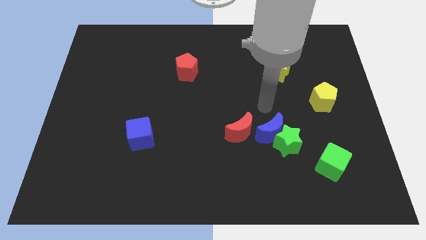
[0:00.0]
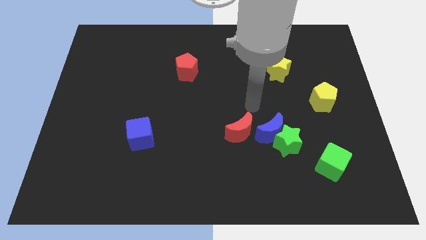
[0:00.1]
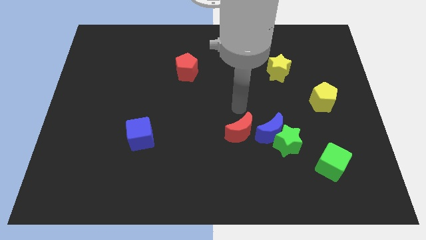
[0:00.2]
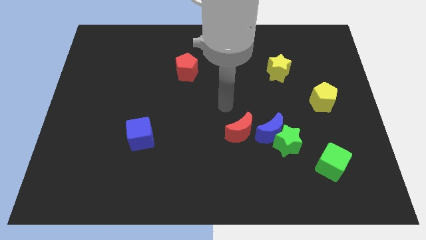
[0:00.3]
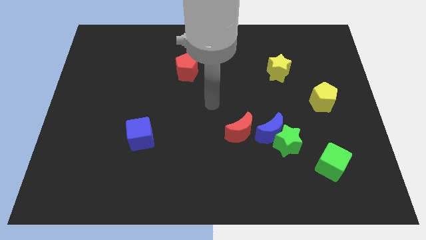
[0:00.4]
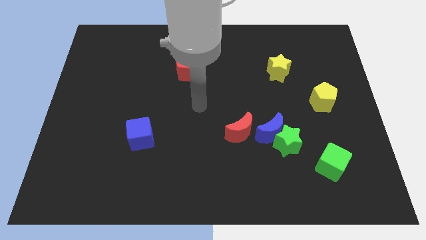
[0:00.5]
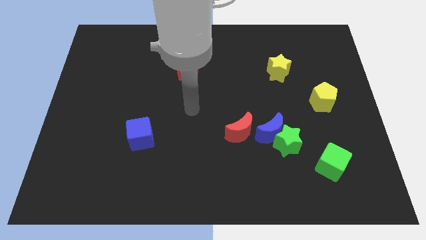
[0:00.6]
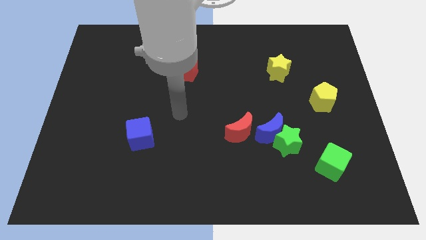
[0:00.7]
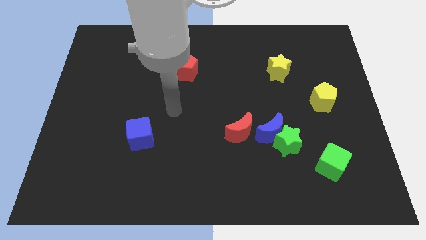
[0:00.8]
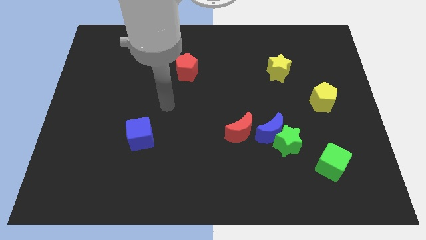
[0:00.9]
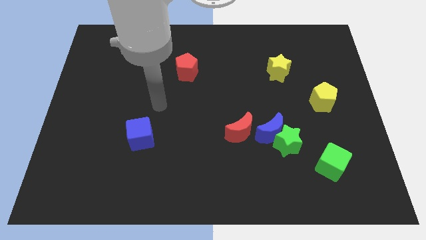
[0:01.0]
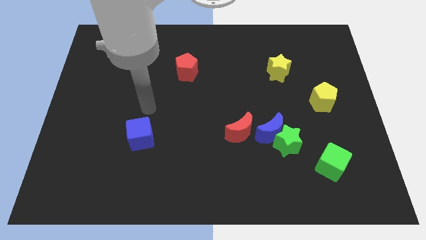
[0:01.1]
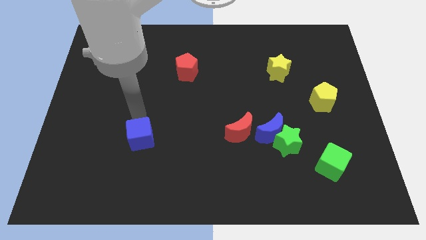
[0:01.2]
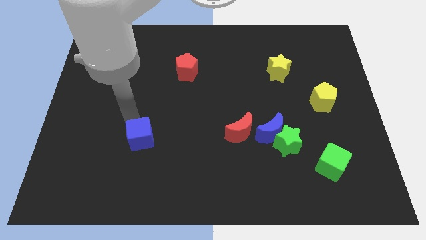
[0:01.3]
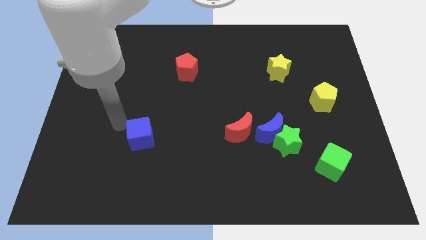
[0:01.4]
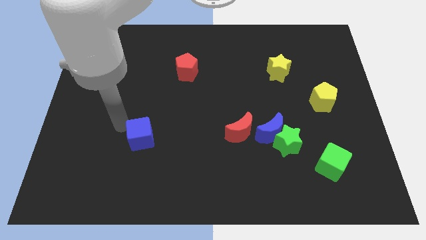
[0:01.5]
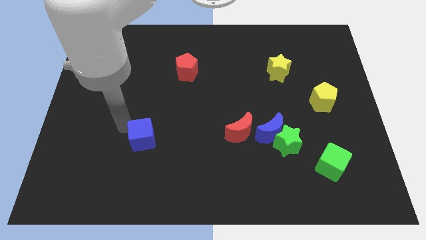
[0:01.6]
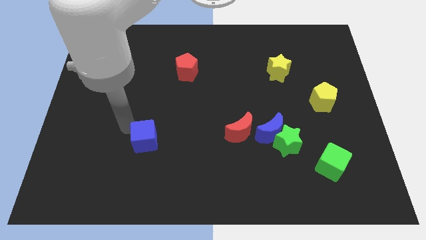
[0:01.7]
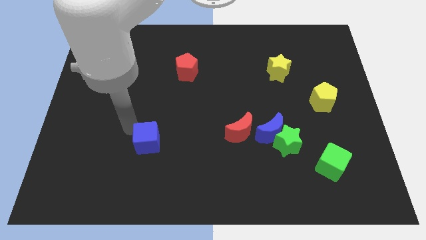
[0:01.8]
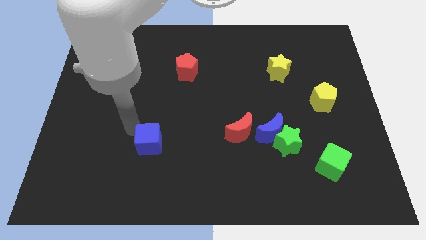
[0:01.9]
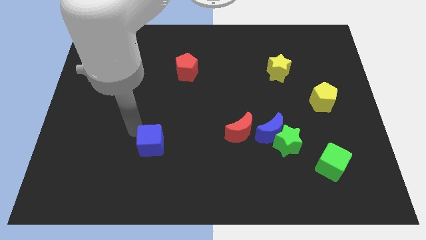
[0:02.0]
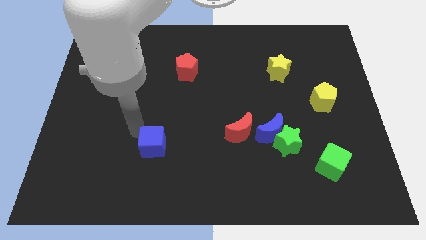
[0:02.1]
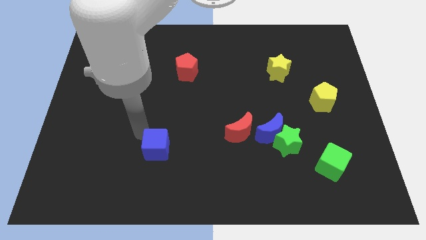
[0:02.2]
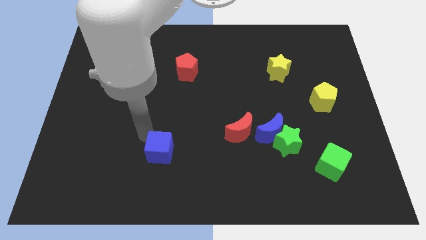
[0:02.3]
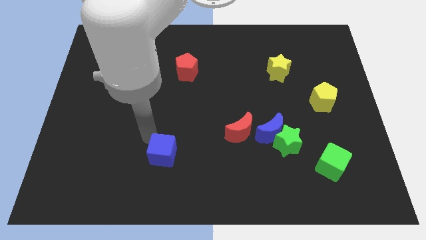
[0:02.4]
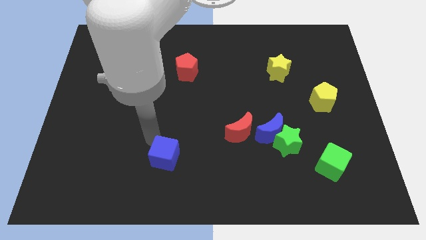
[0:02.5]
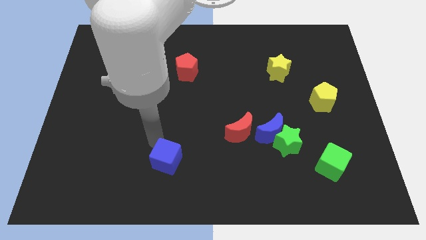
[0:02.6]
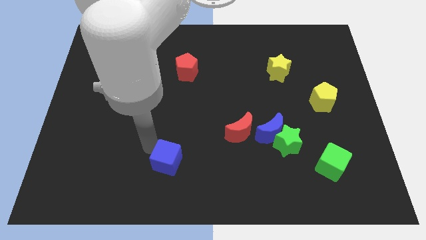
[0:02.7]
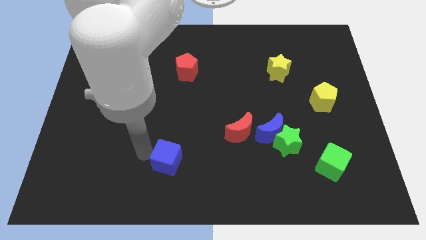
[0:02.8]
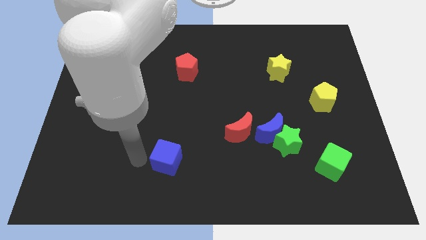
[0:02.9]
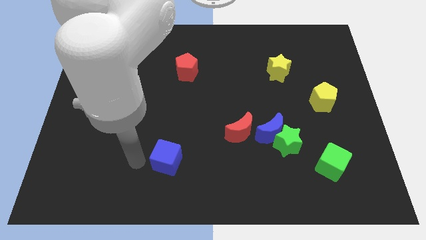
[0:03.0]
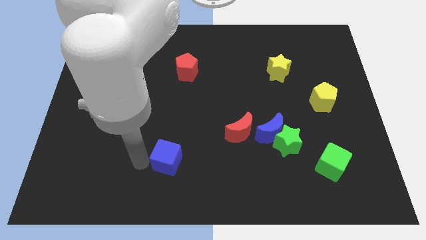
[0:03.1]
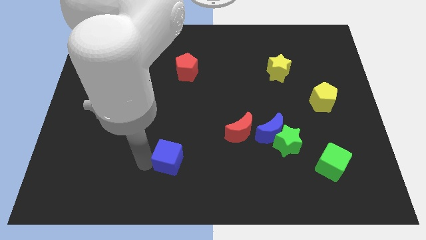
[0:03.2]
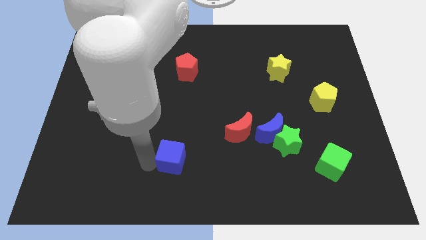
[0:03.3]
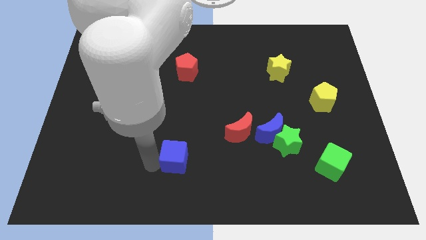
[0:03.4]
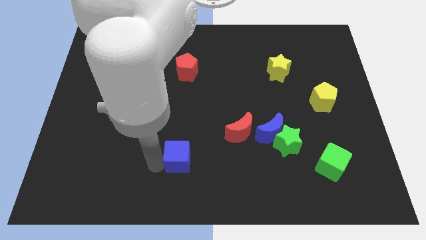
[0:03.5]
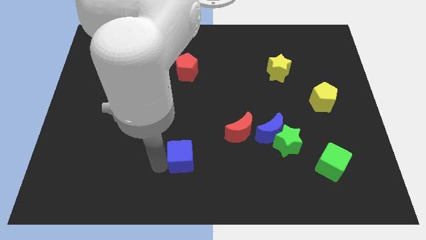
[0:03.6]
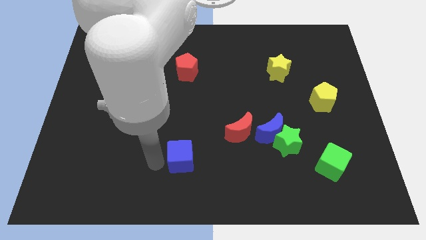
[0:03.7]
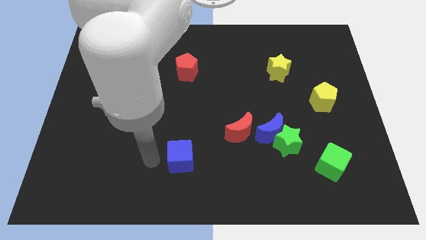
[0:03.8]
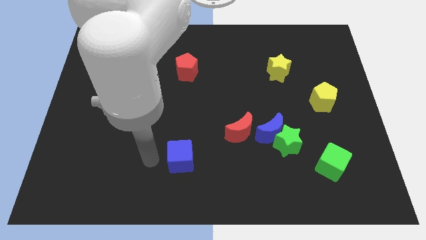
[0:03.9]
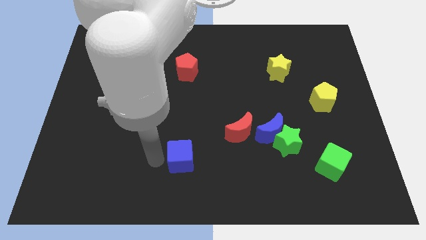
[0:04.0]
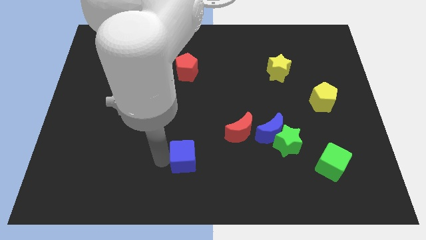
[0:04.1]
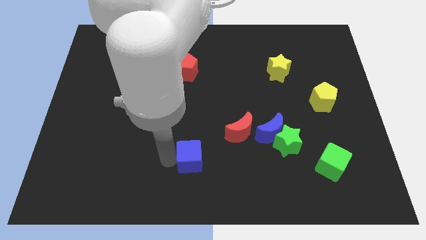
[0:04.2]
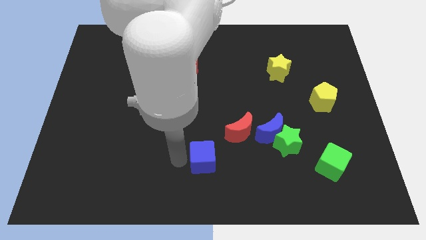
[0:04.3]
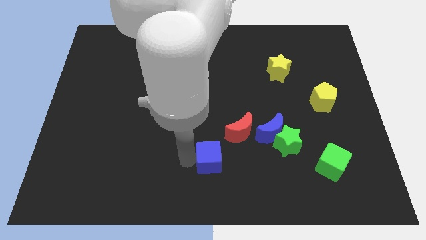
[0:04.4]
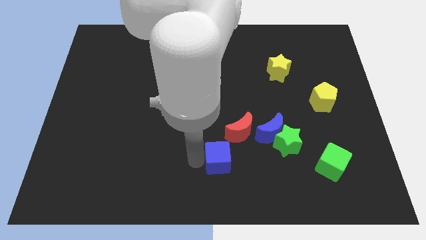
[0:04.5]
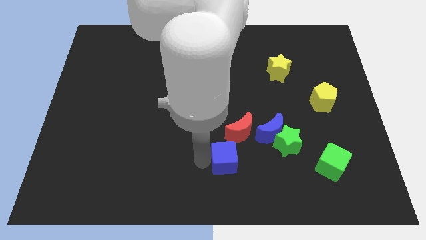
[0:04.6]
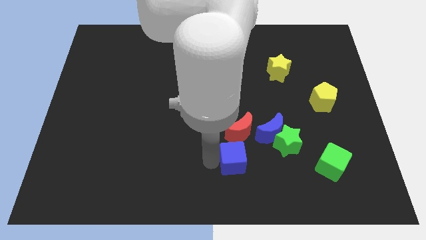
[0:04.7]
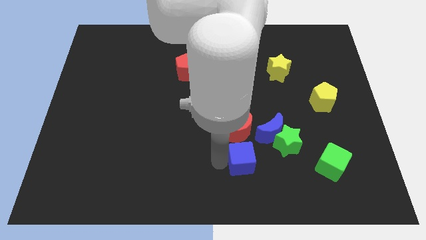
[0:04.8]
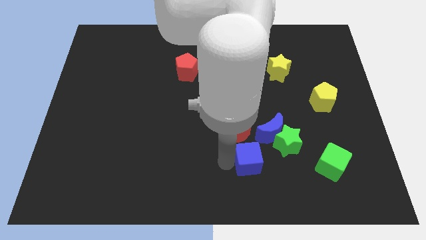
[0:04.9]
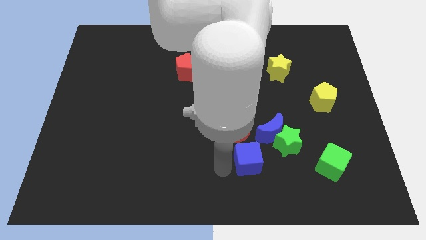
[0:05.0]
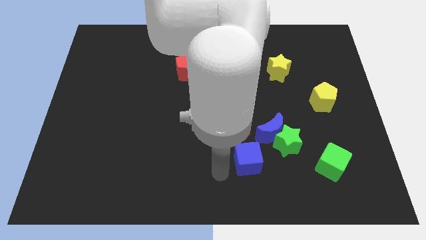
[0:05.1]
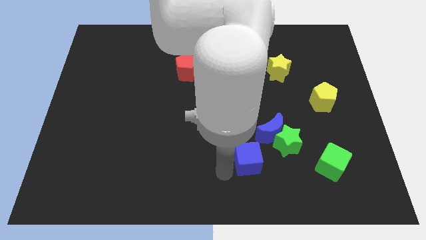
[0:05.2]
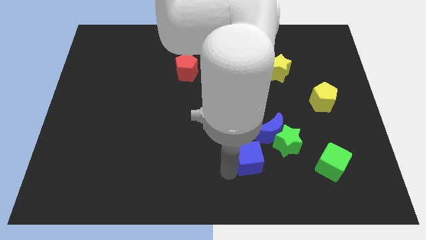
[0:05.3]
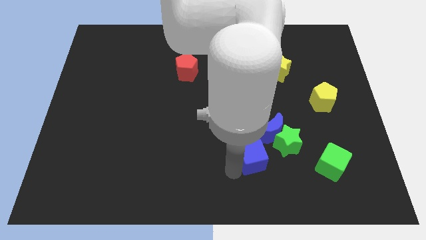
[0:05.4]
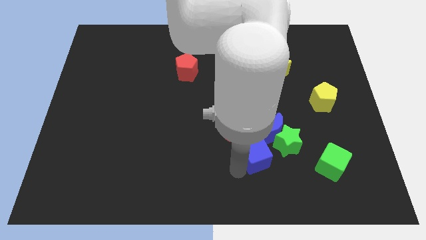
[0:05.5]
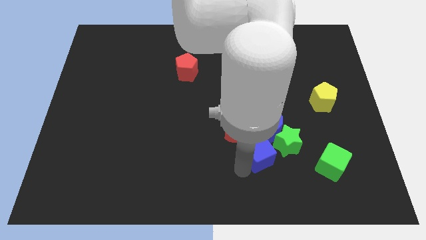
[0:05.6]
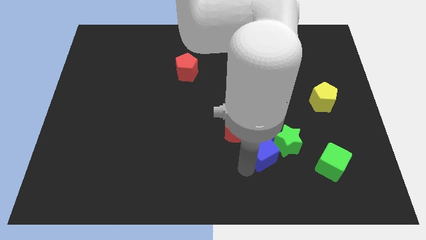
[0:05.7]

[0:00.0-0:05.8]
push the blue cube close to the green star

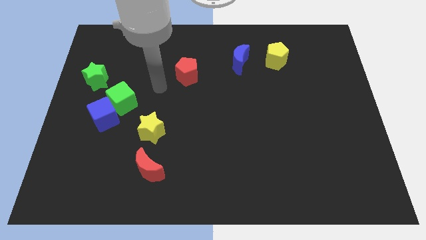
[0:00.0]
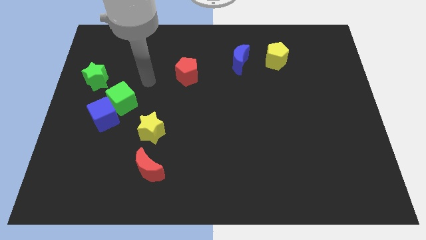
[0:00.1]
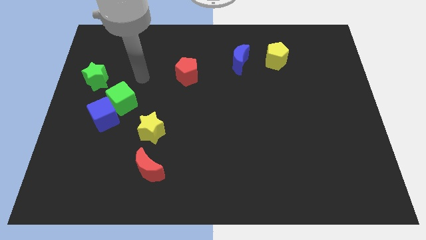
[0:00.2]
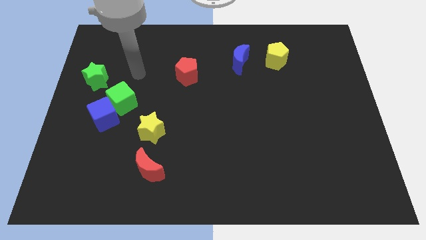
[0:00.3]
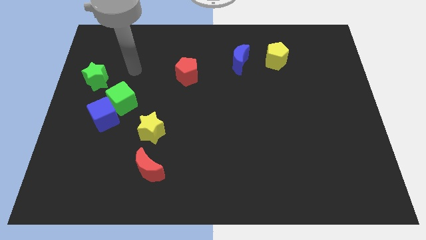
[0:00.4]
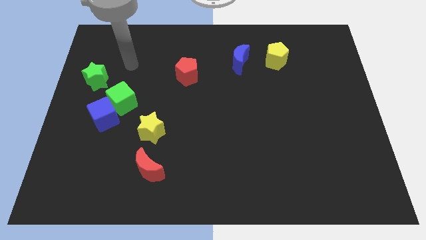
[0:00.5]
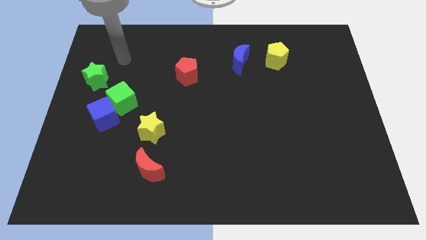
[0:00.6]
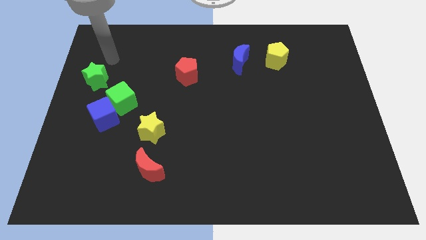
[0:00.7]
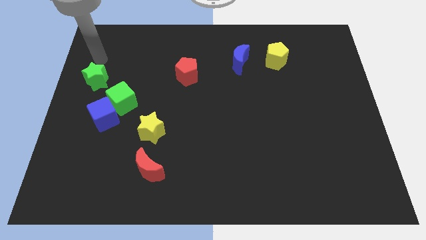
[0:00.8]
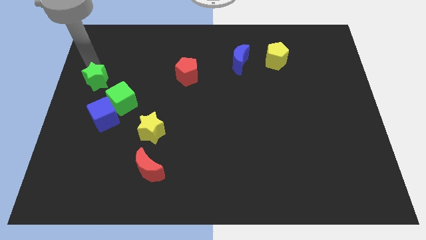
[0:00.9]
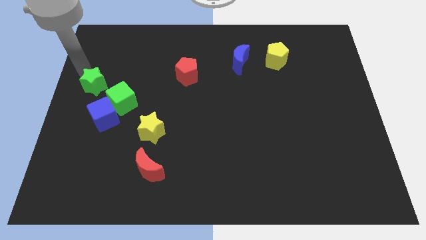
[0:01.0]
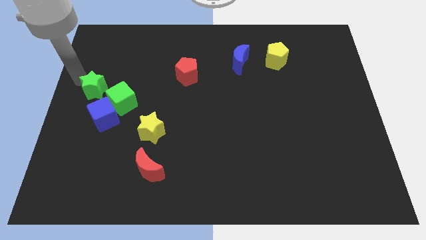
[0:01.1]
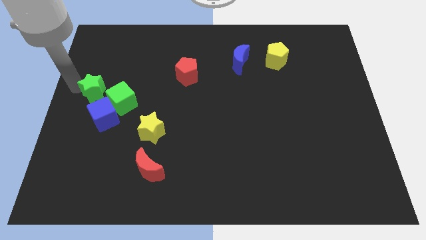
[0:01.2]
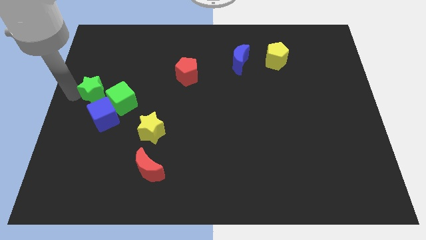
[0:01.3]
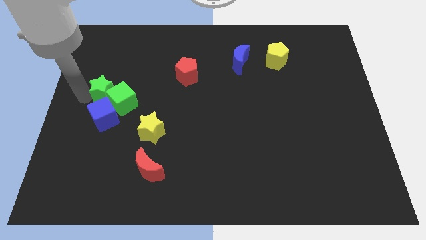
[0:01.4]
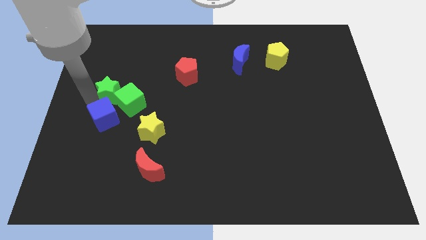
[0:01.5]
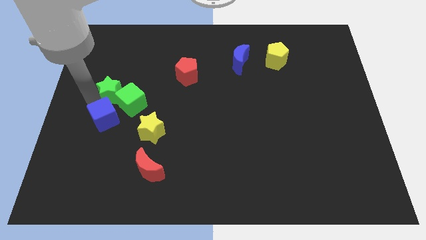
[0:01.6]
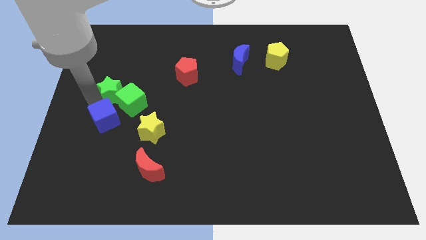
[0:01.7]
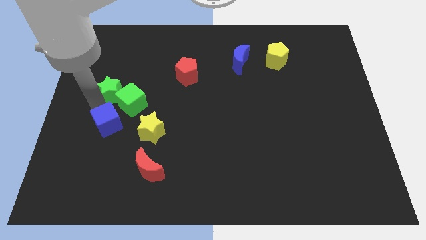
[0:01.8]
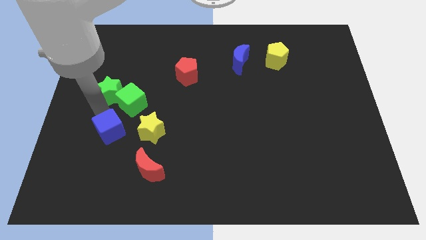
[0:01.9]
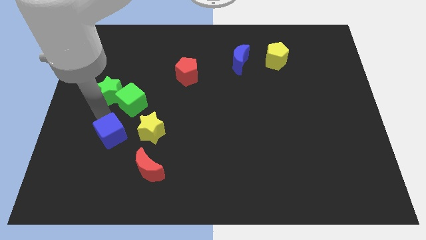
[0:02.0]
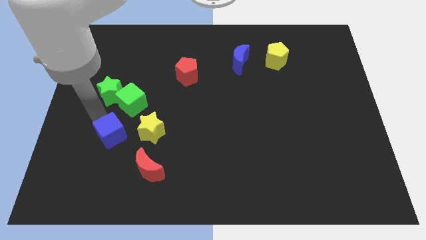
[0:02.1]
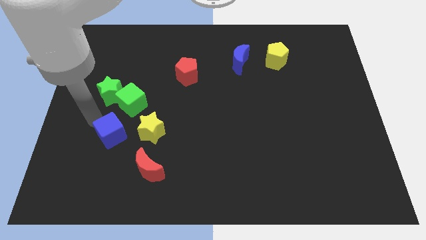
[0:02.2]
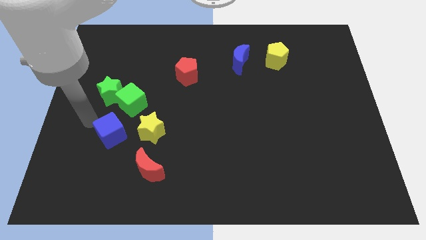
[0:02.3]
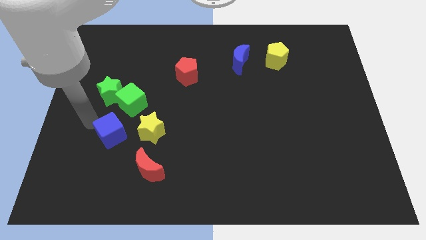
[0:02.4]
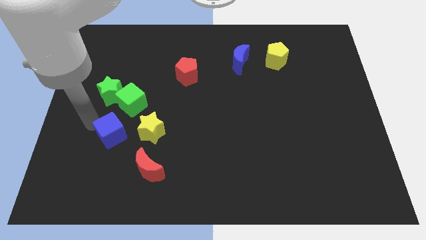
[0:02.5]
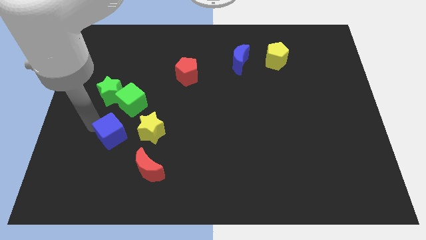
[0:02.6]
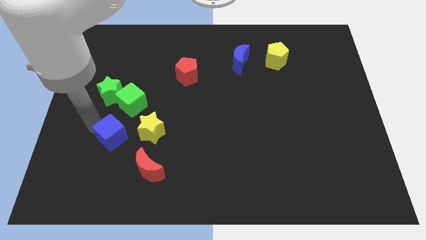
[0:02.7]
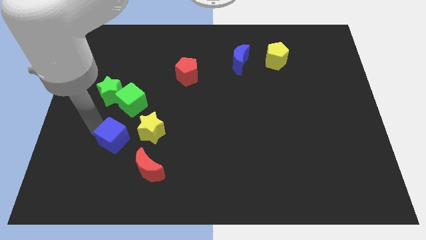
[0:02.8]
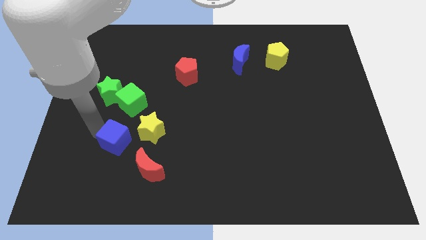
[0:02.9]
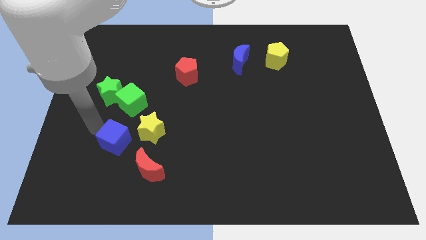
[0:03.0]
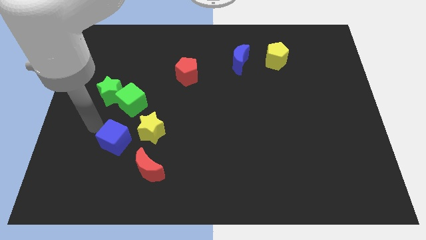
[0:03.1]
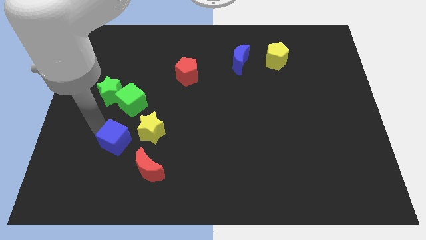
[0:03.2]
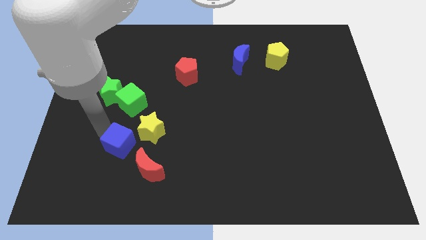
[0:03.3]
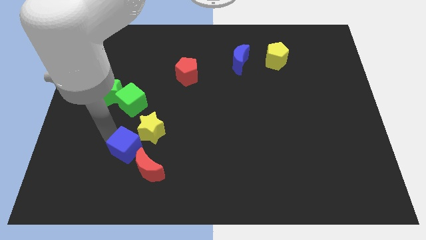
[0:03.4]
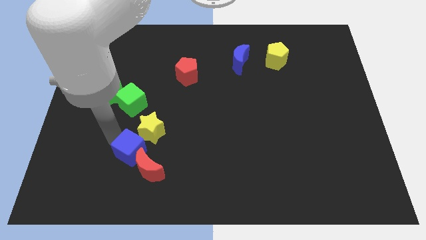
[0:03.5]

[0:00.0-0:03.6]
push the blue cube next to the red moon
